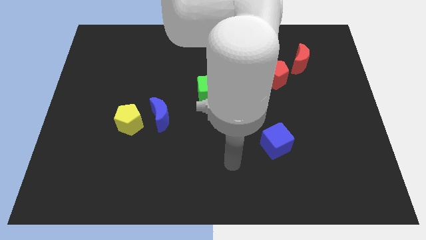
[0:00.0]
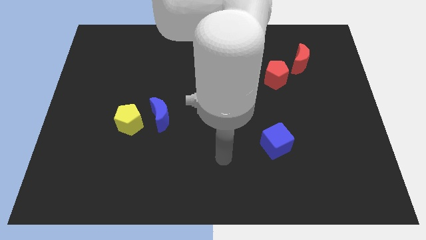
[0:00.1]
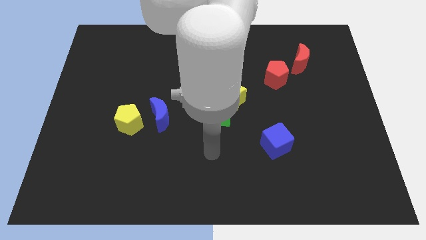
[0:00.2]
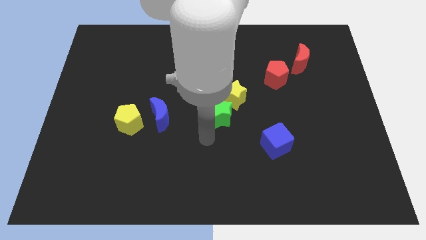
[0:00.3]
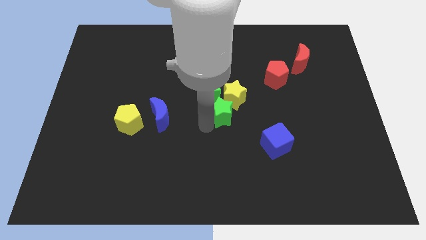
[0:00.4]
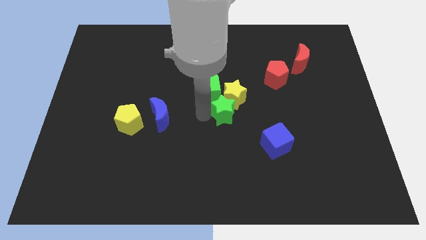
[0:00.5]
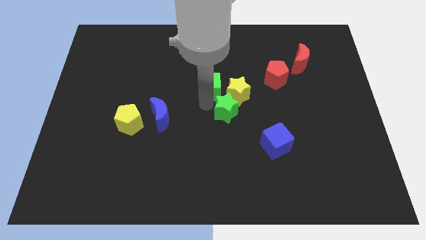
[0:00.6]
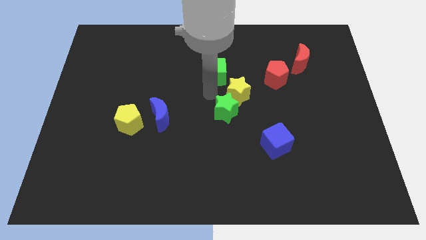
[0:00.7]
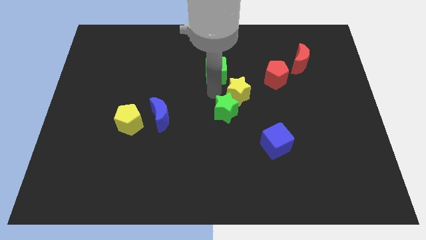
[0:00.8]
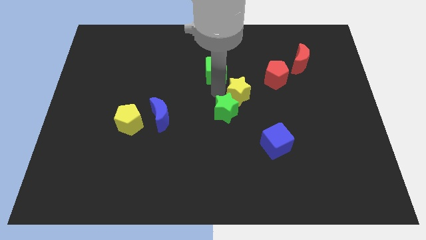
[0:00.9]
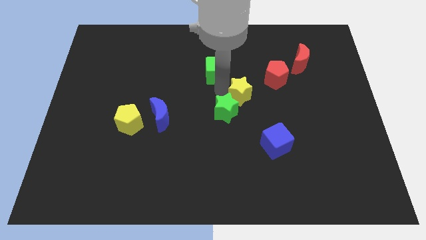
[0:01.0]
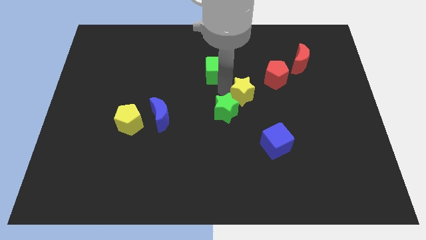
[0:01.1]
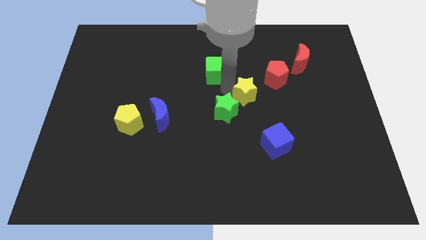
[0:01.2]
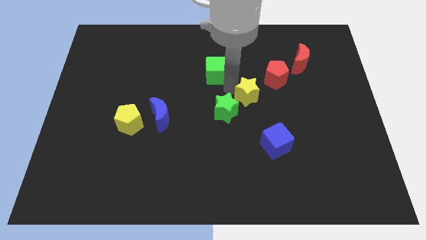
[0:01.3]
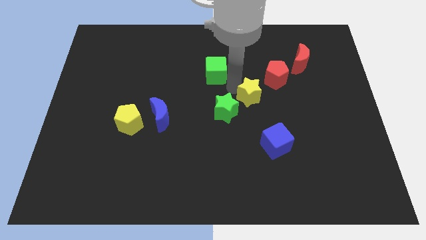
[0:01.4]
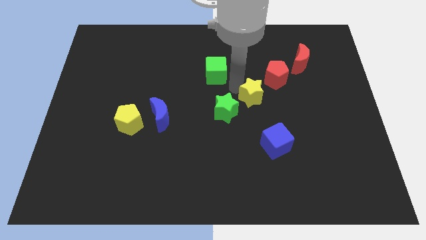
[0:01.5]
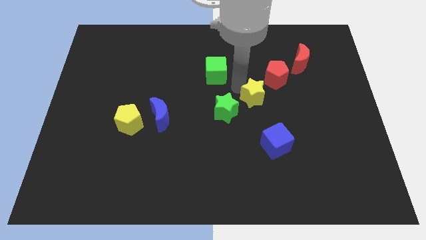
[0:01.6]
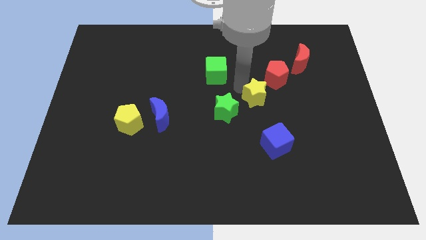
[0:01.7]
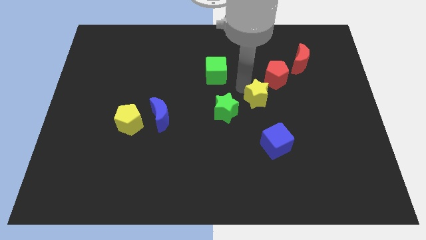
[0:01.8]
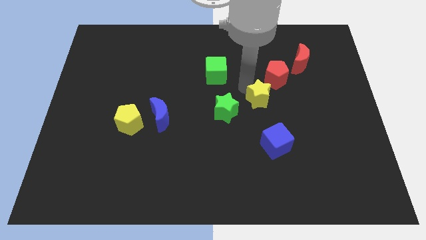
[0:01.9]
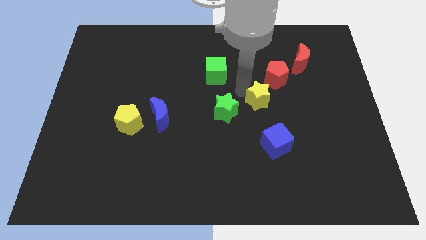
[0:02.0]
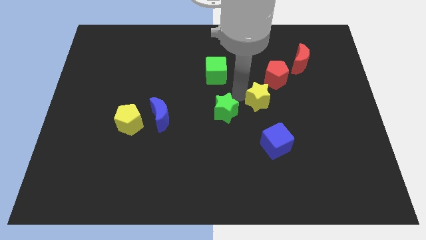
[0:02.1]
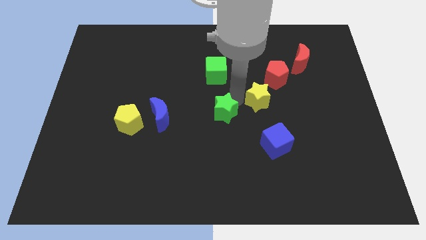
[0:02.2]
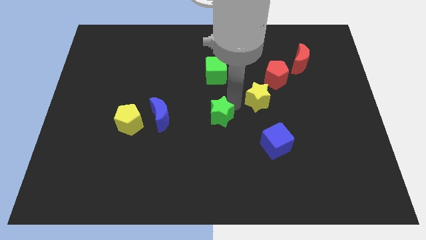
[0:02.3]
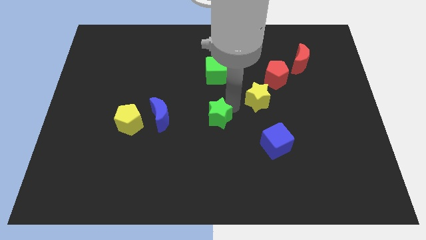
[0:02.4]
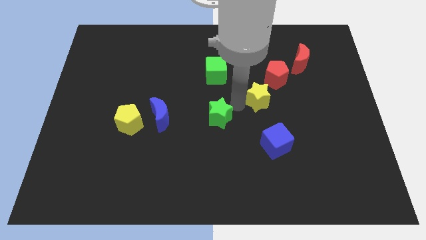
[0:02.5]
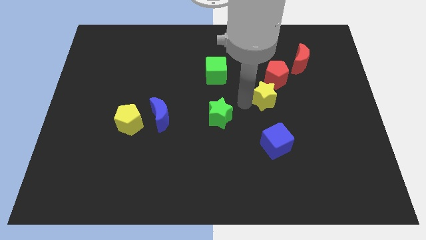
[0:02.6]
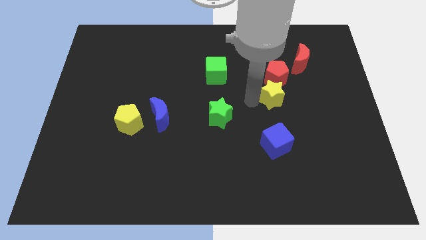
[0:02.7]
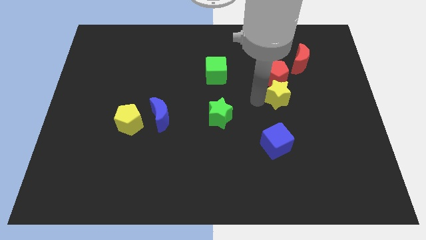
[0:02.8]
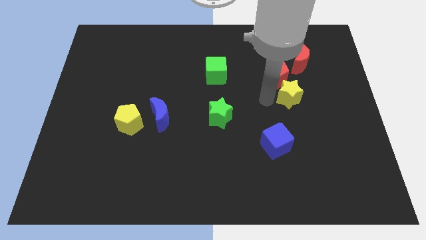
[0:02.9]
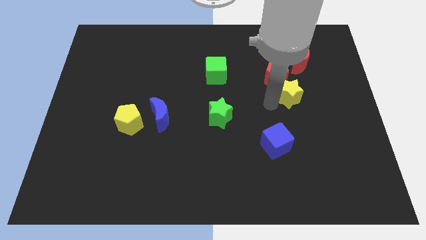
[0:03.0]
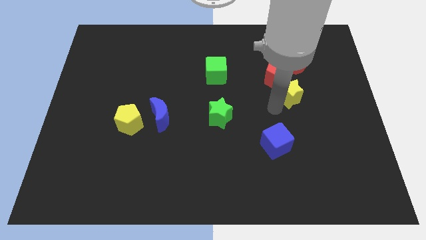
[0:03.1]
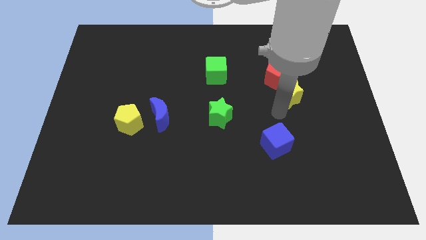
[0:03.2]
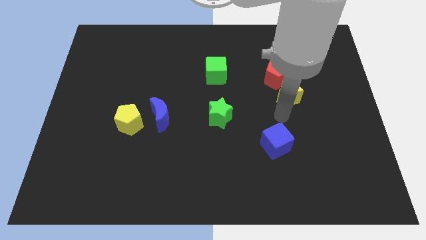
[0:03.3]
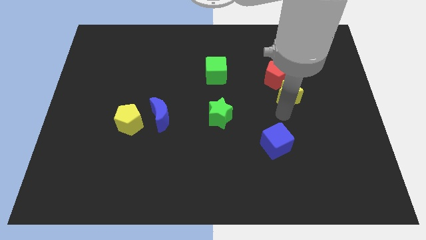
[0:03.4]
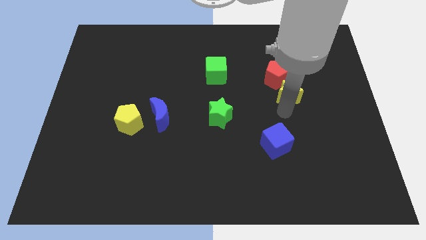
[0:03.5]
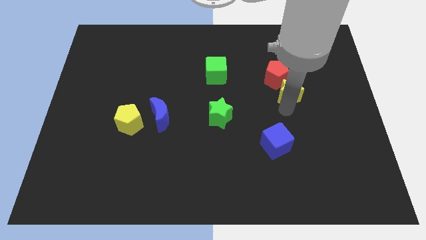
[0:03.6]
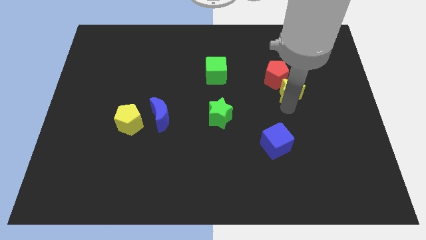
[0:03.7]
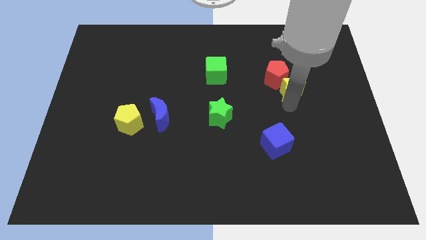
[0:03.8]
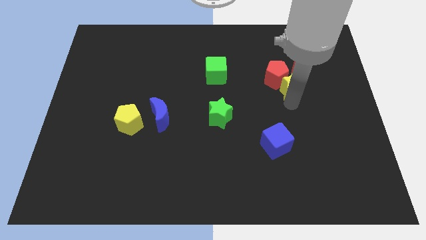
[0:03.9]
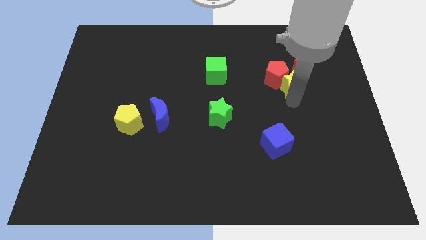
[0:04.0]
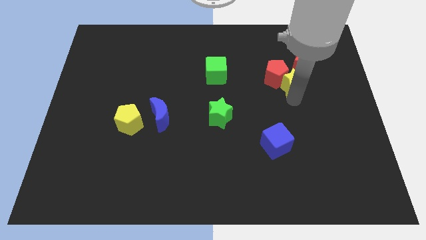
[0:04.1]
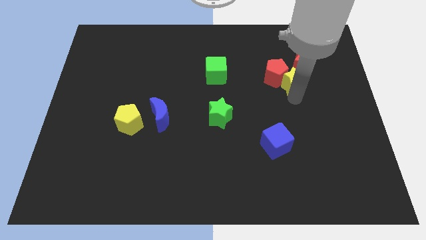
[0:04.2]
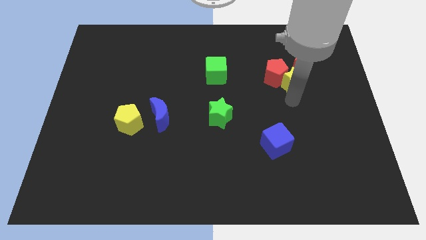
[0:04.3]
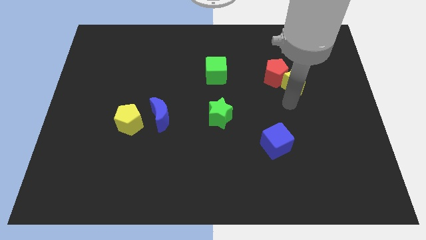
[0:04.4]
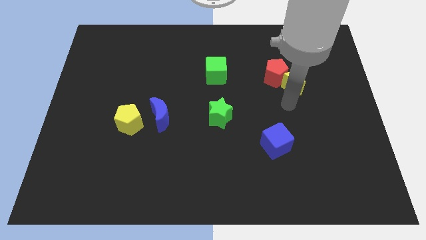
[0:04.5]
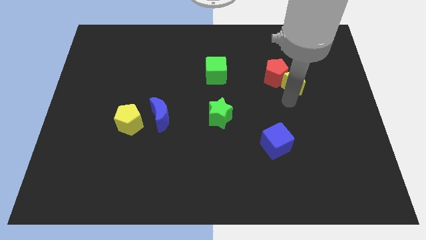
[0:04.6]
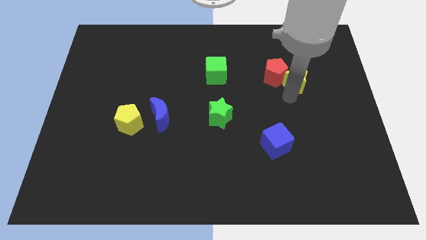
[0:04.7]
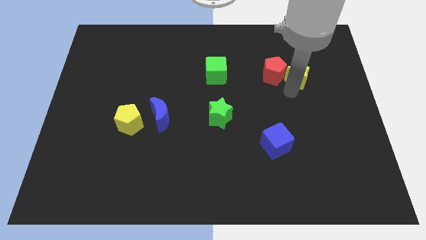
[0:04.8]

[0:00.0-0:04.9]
move the yellow star towards the red moon

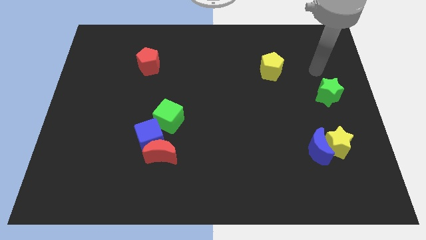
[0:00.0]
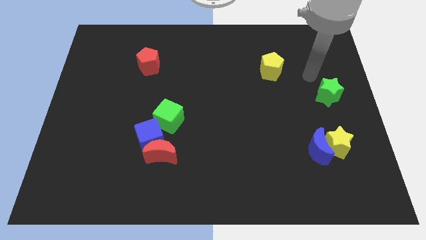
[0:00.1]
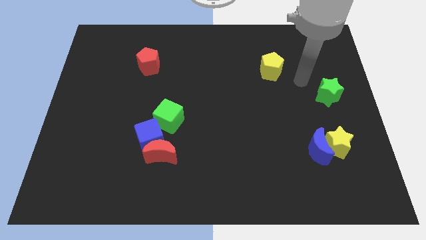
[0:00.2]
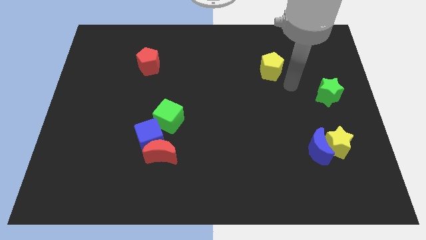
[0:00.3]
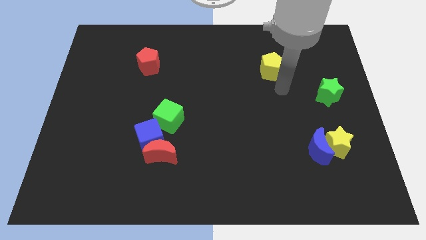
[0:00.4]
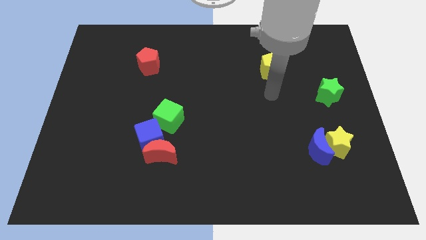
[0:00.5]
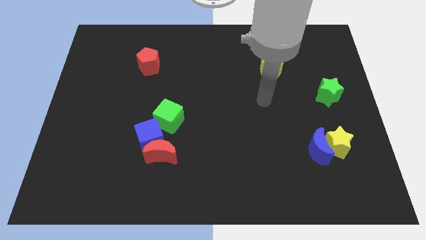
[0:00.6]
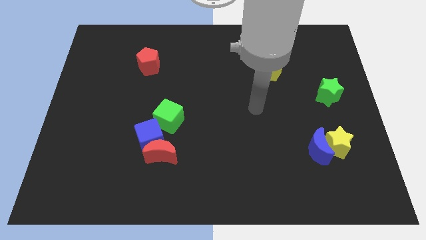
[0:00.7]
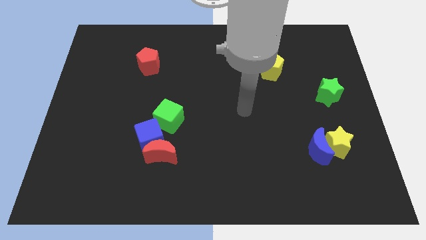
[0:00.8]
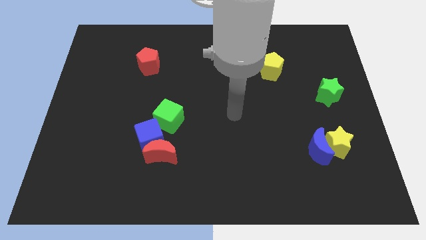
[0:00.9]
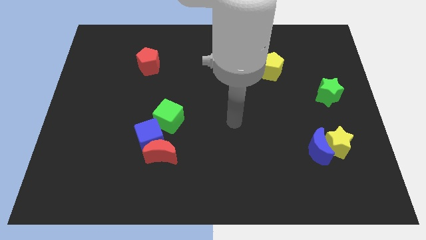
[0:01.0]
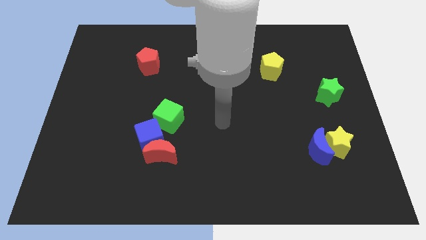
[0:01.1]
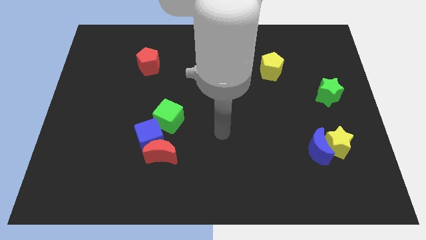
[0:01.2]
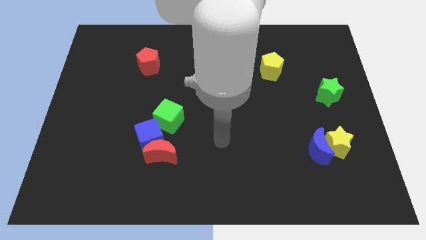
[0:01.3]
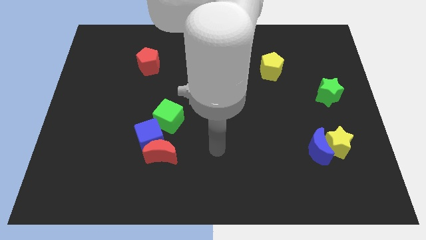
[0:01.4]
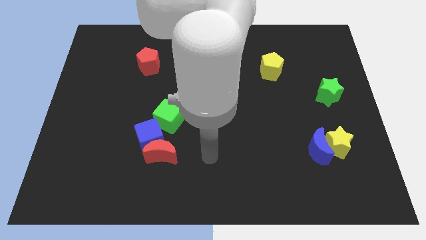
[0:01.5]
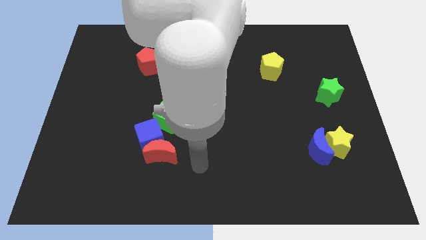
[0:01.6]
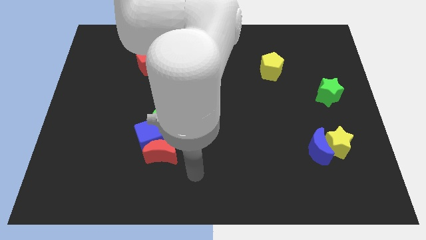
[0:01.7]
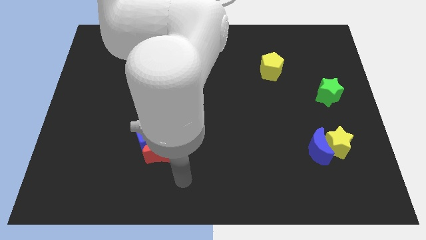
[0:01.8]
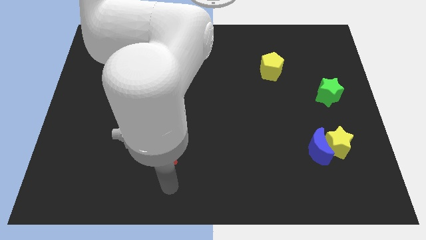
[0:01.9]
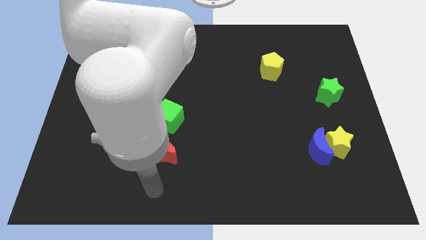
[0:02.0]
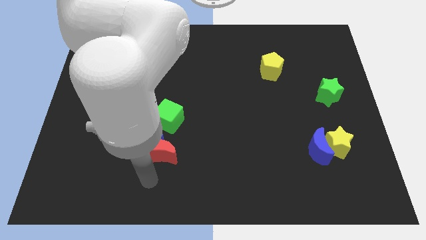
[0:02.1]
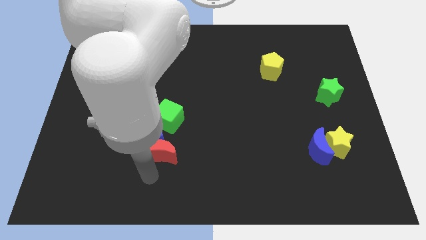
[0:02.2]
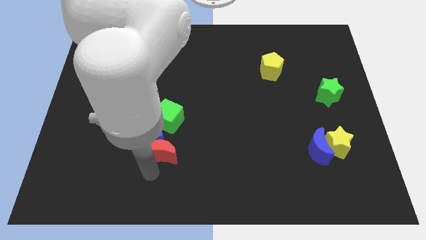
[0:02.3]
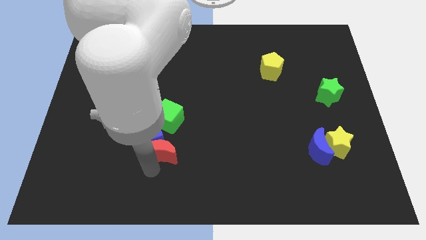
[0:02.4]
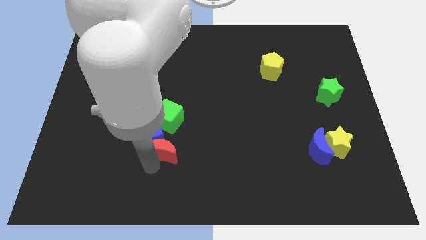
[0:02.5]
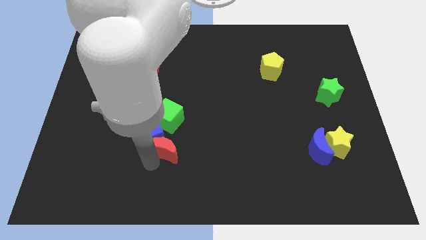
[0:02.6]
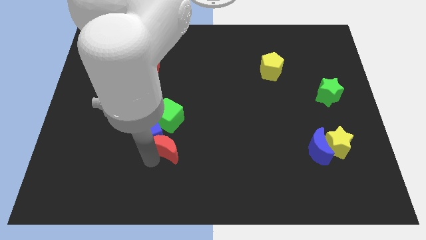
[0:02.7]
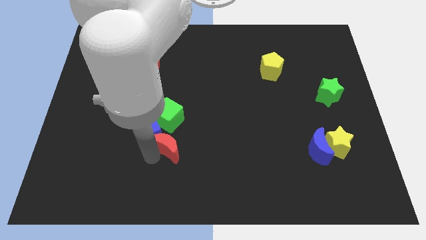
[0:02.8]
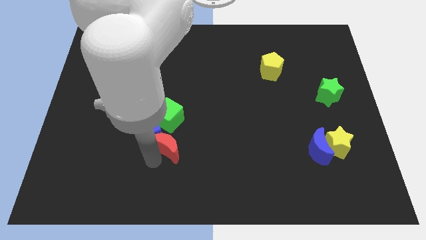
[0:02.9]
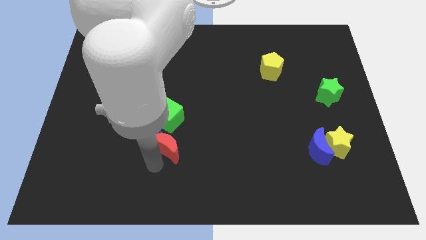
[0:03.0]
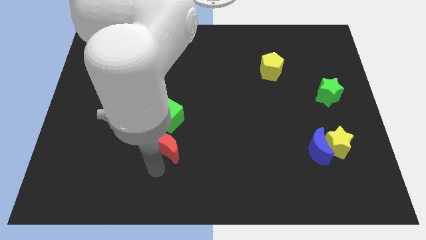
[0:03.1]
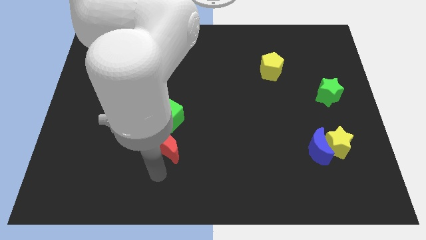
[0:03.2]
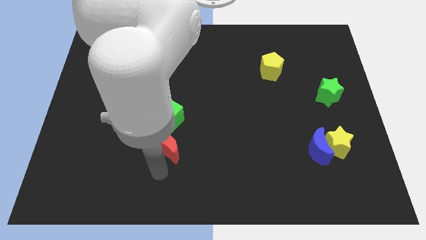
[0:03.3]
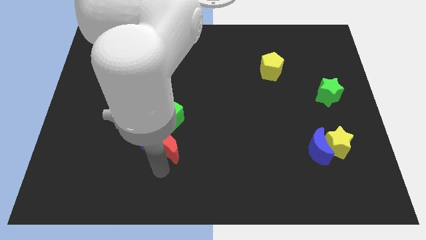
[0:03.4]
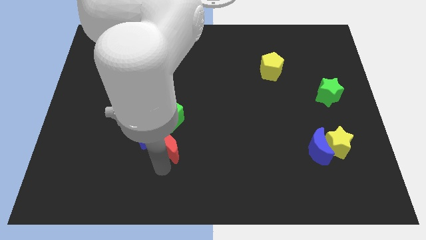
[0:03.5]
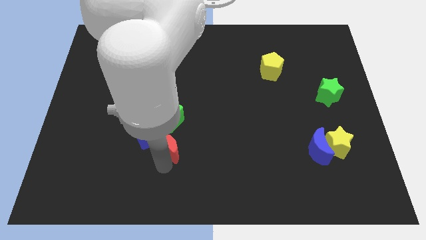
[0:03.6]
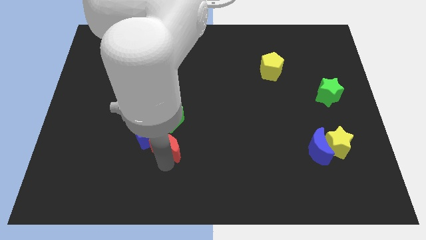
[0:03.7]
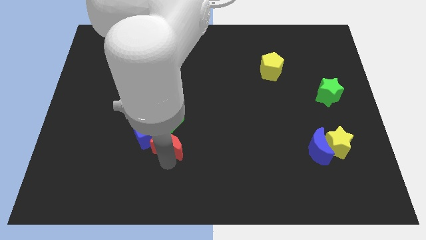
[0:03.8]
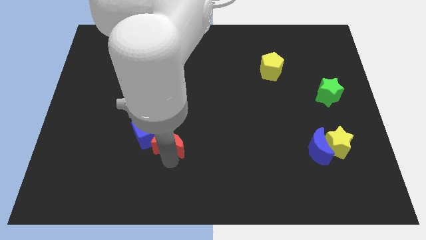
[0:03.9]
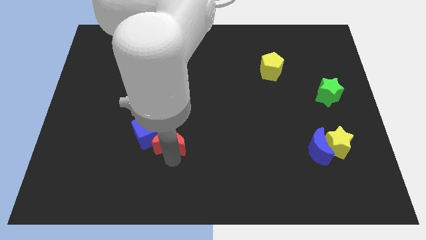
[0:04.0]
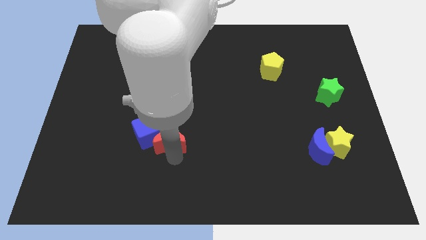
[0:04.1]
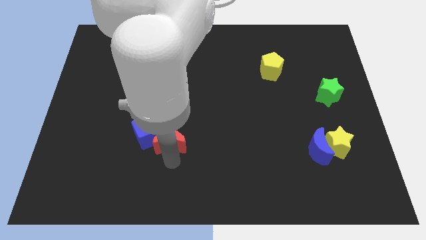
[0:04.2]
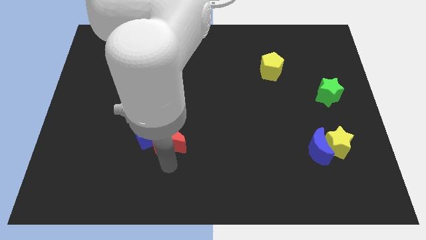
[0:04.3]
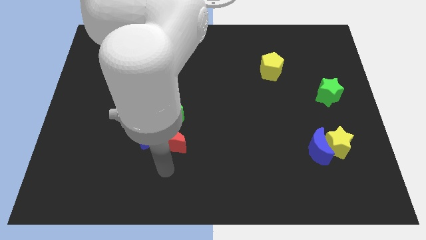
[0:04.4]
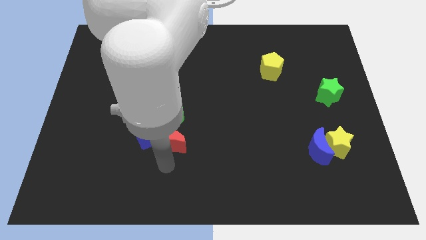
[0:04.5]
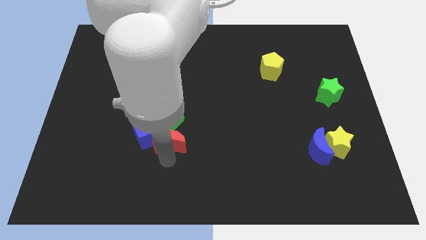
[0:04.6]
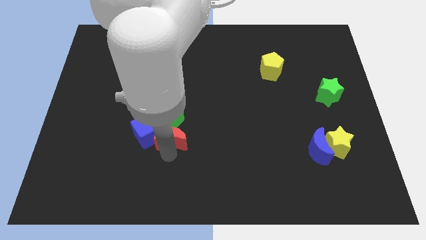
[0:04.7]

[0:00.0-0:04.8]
move the red moon close to the green cube
